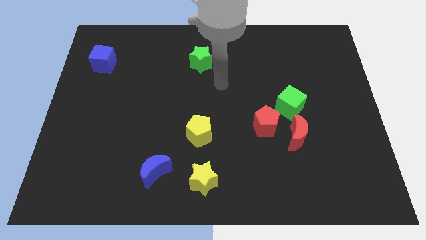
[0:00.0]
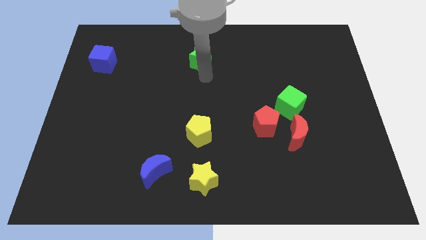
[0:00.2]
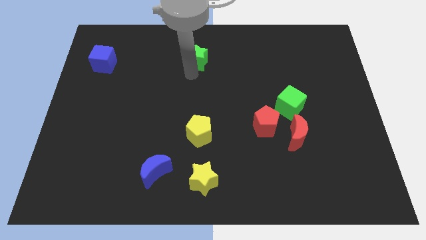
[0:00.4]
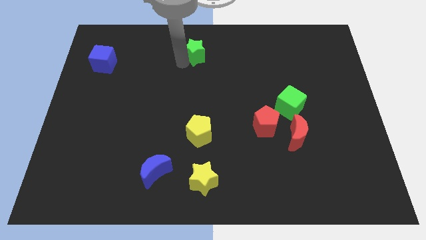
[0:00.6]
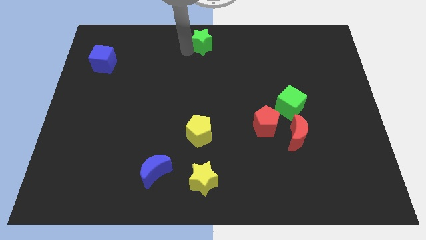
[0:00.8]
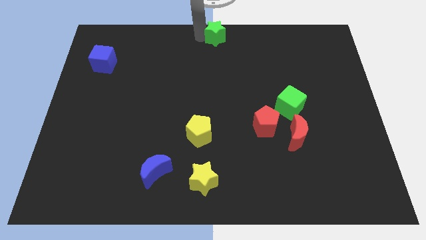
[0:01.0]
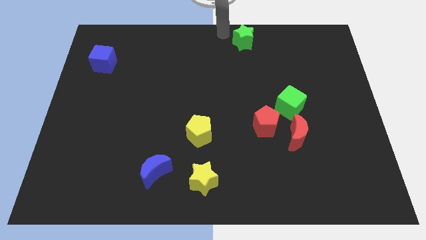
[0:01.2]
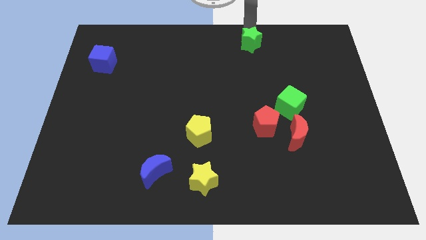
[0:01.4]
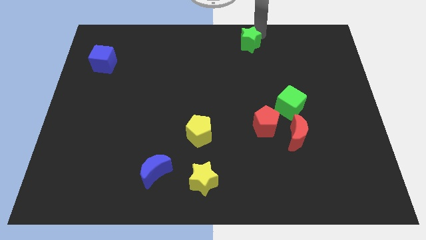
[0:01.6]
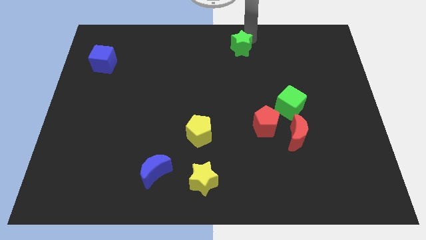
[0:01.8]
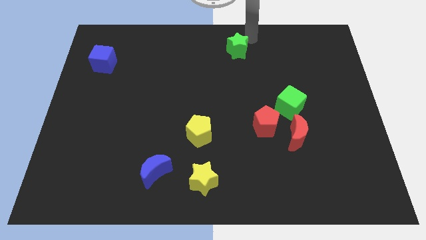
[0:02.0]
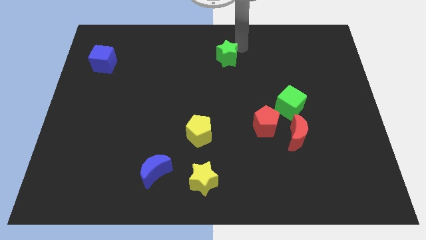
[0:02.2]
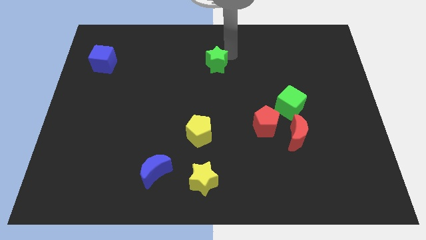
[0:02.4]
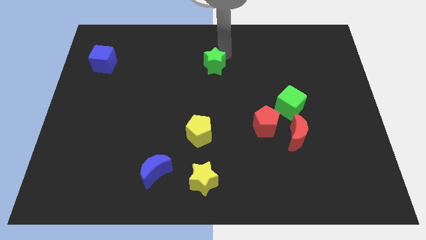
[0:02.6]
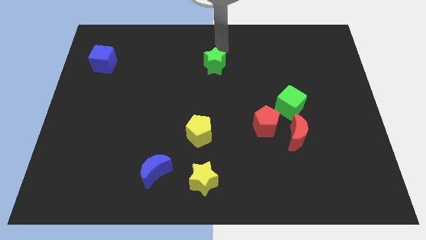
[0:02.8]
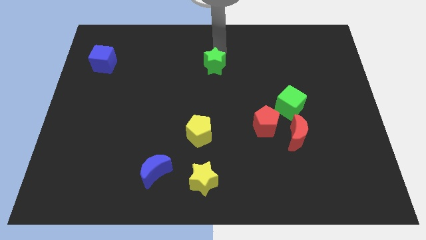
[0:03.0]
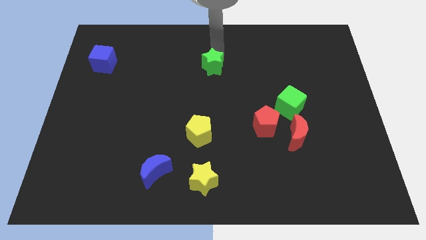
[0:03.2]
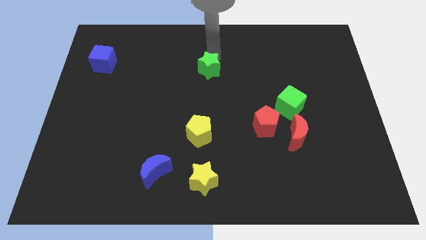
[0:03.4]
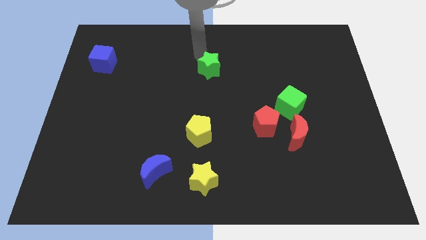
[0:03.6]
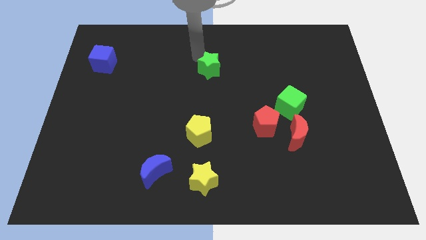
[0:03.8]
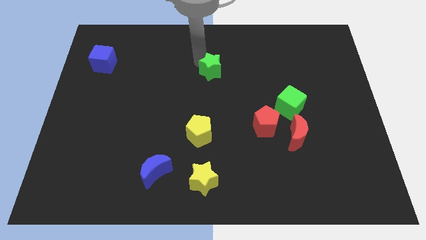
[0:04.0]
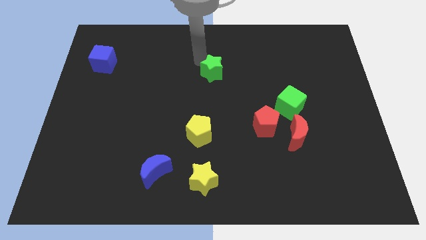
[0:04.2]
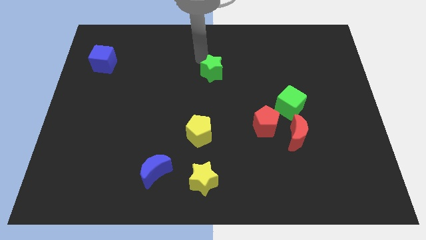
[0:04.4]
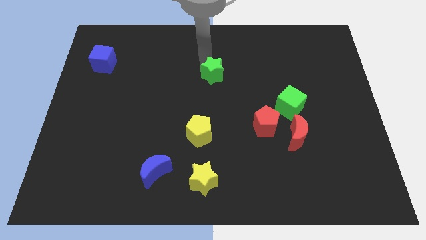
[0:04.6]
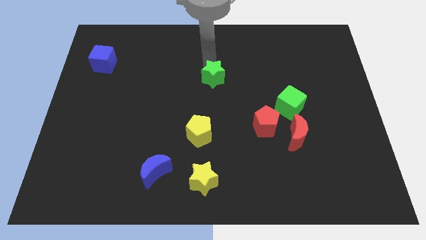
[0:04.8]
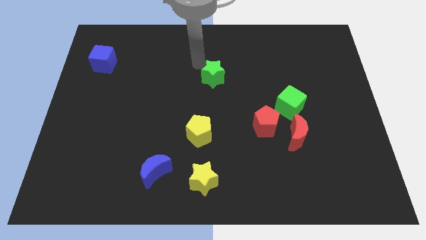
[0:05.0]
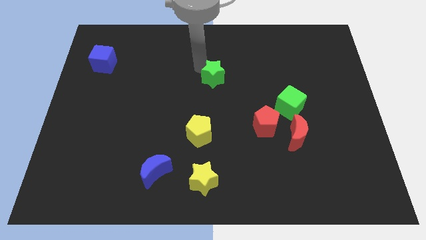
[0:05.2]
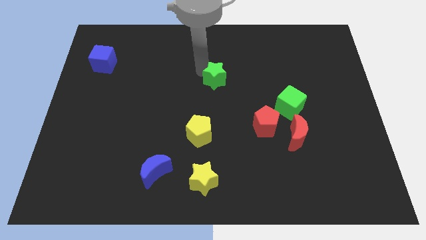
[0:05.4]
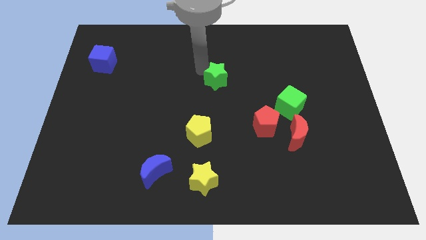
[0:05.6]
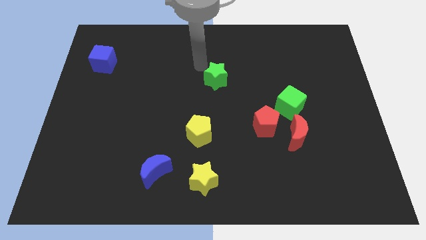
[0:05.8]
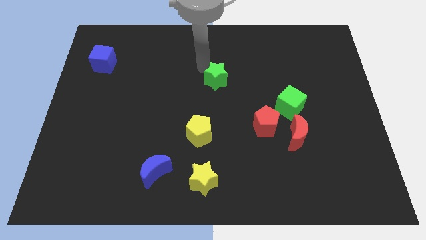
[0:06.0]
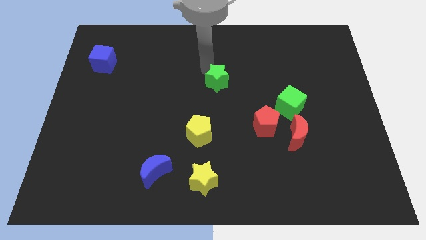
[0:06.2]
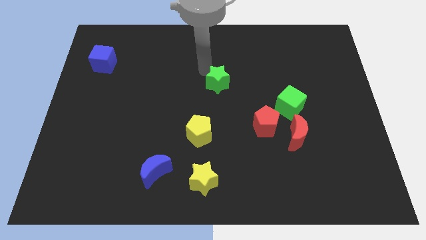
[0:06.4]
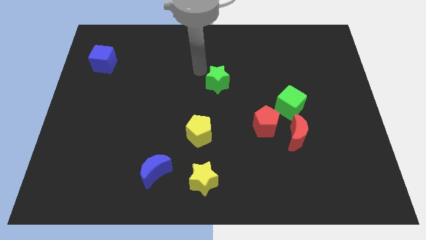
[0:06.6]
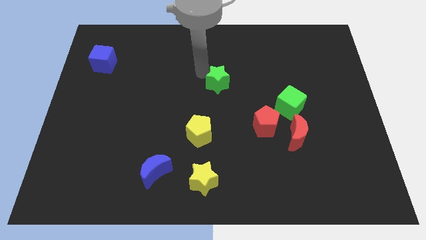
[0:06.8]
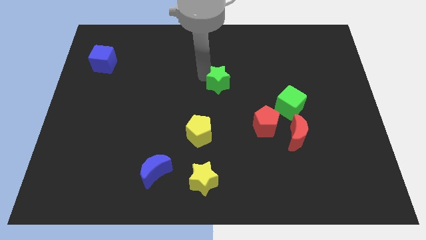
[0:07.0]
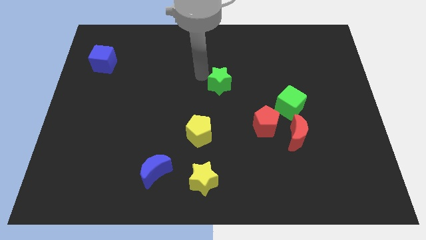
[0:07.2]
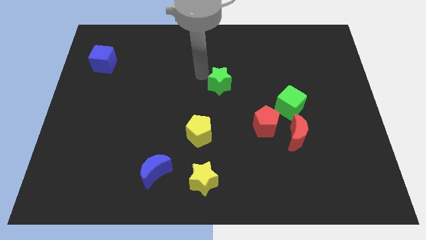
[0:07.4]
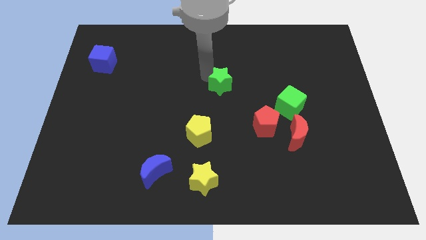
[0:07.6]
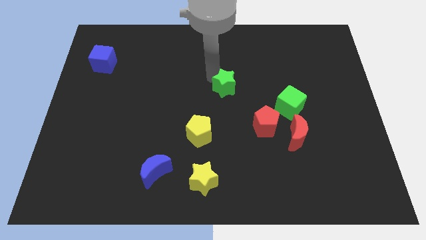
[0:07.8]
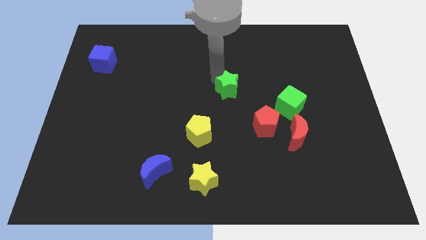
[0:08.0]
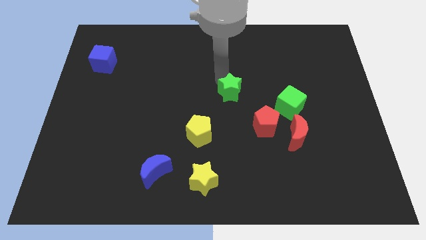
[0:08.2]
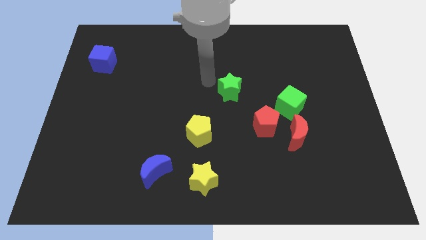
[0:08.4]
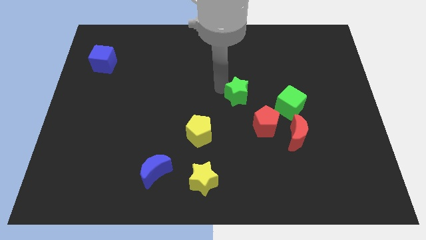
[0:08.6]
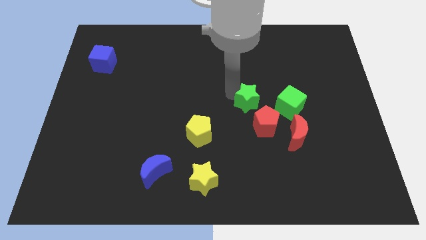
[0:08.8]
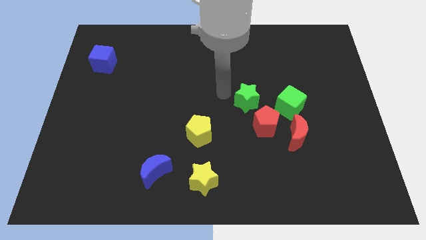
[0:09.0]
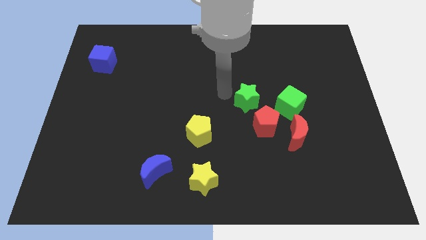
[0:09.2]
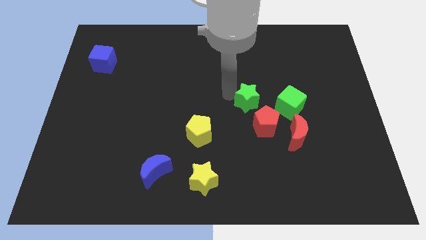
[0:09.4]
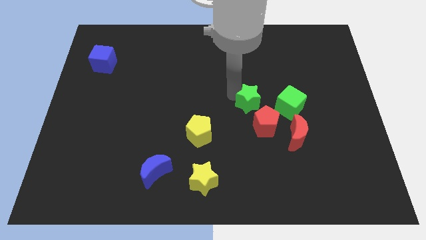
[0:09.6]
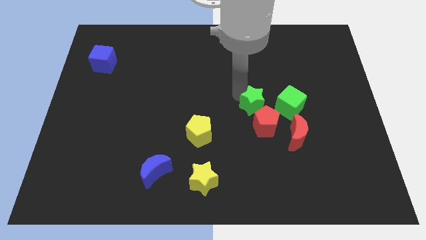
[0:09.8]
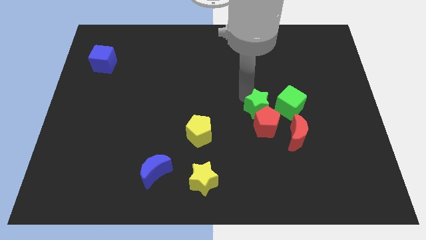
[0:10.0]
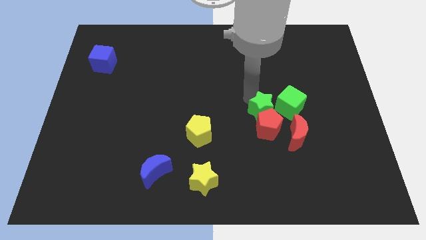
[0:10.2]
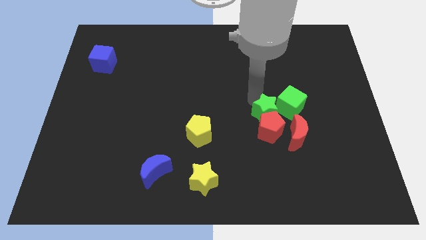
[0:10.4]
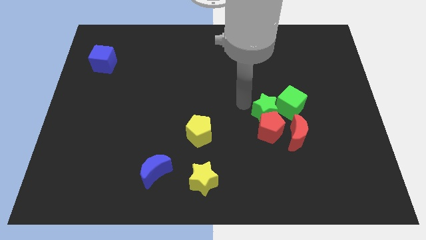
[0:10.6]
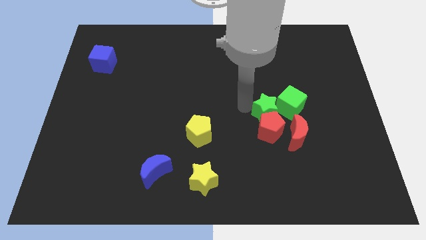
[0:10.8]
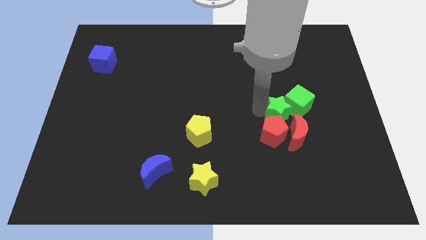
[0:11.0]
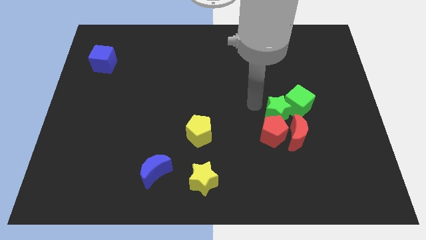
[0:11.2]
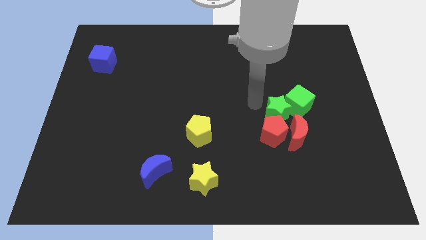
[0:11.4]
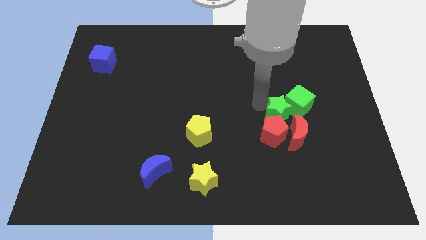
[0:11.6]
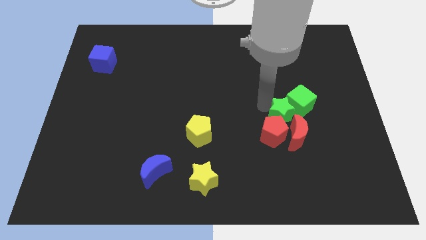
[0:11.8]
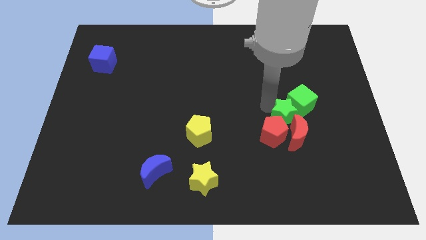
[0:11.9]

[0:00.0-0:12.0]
move the green star to the red moon

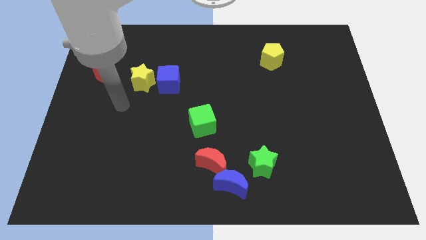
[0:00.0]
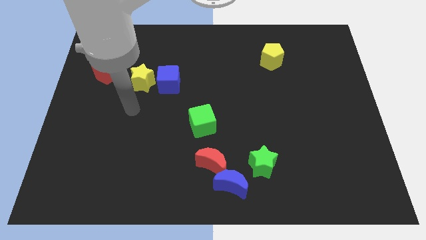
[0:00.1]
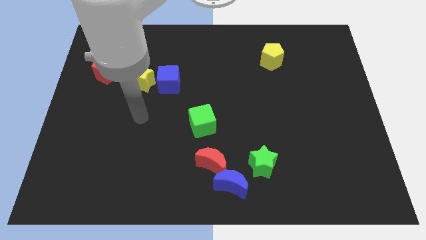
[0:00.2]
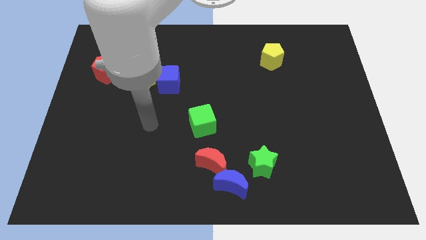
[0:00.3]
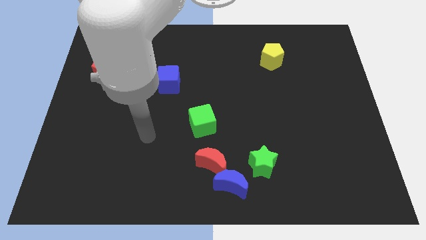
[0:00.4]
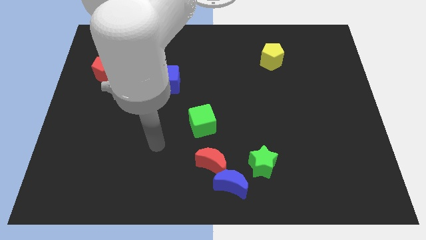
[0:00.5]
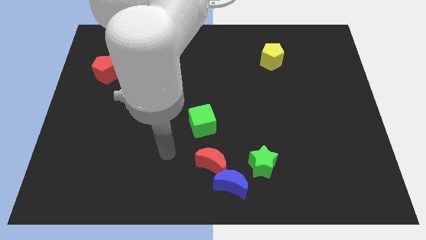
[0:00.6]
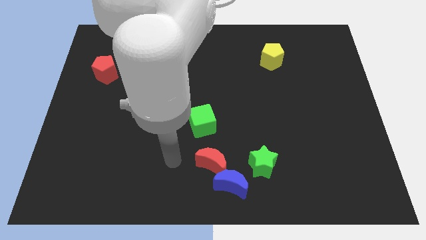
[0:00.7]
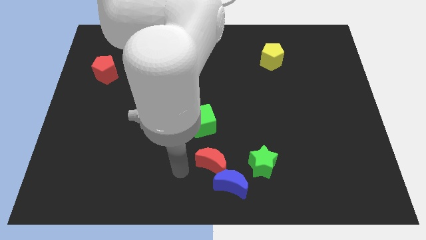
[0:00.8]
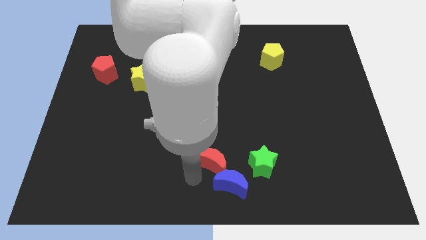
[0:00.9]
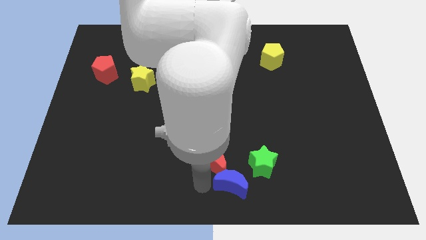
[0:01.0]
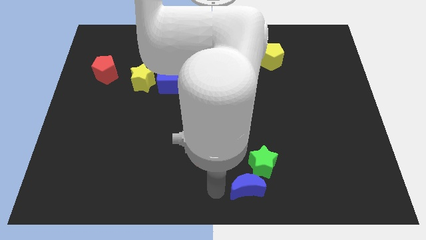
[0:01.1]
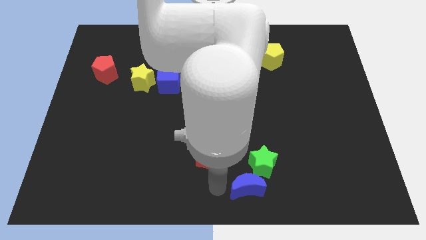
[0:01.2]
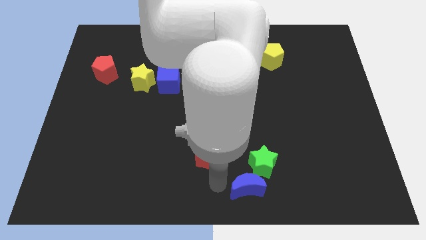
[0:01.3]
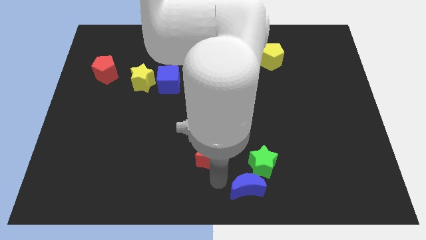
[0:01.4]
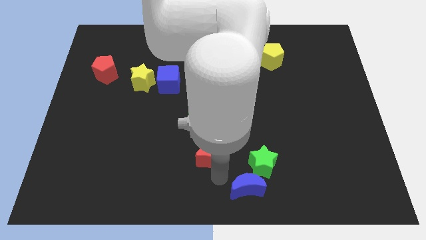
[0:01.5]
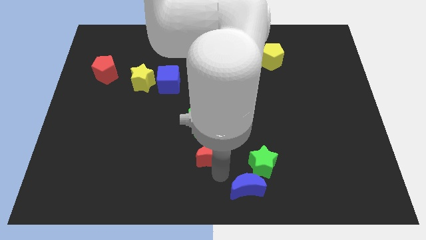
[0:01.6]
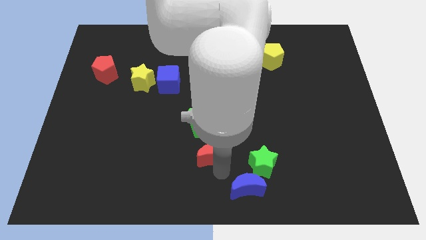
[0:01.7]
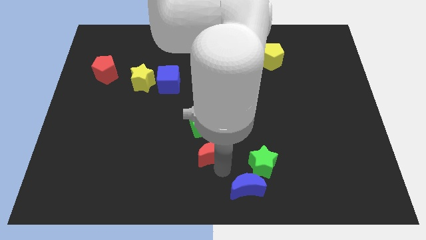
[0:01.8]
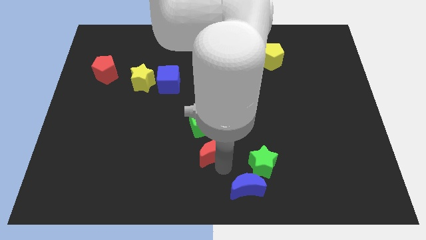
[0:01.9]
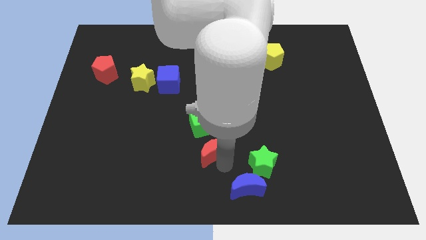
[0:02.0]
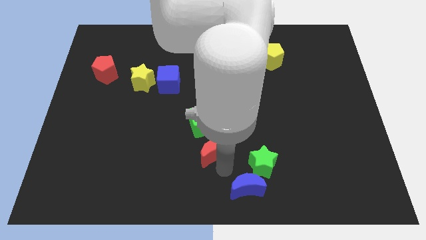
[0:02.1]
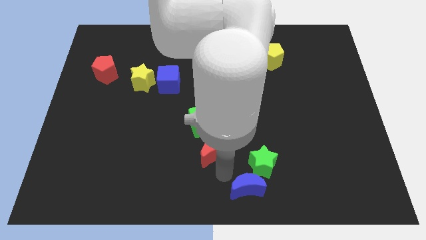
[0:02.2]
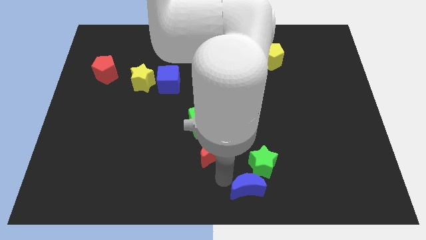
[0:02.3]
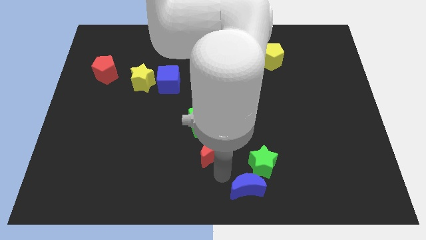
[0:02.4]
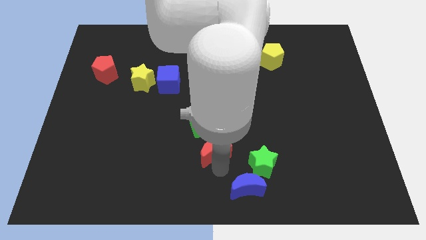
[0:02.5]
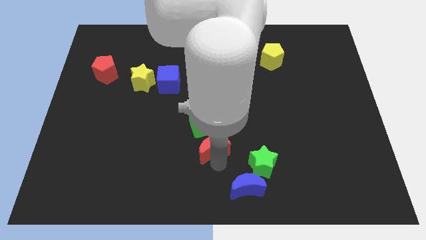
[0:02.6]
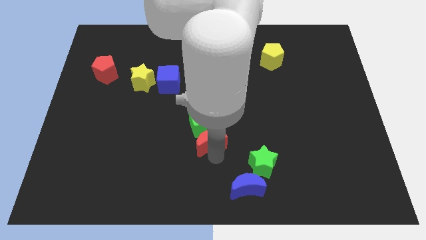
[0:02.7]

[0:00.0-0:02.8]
slide the red moon next to the green cube
